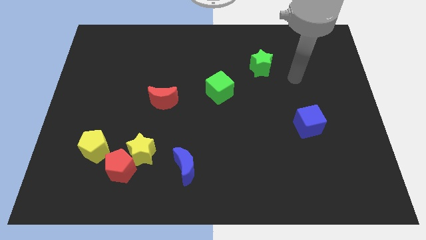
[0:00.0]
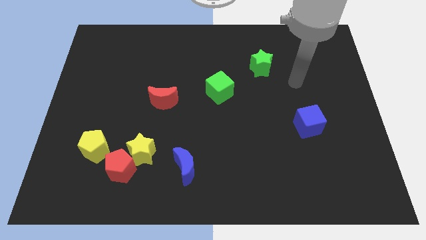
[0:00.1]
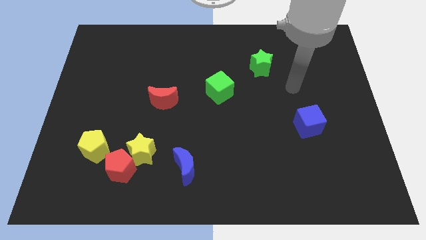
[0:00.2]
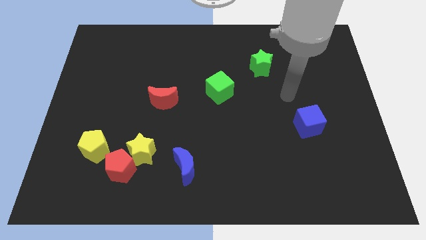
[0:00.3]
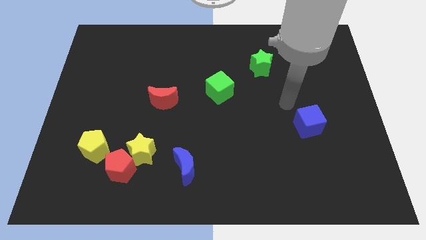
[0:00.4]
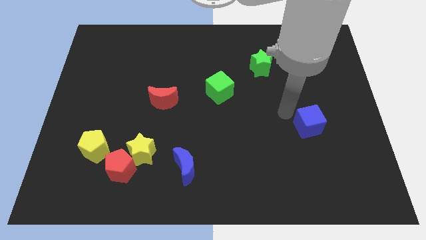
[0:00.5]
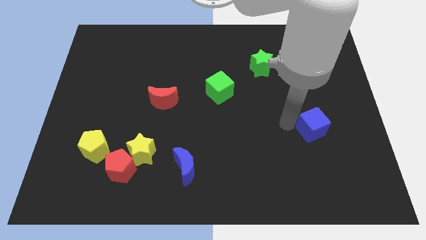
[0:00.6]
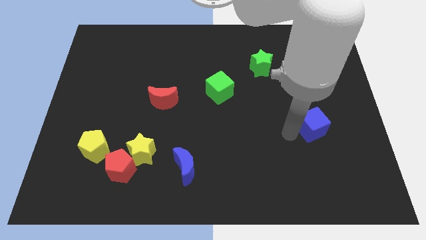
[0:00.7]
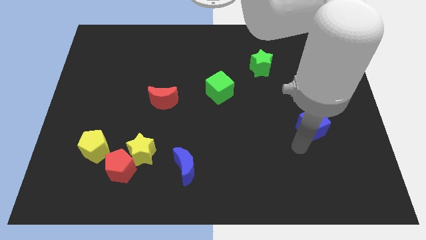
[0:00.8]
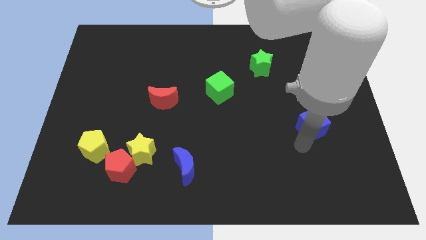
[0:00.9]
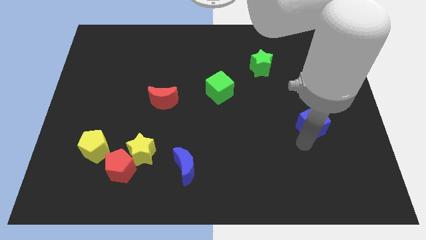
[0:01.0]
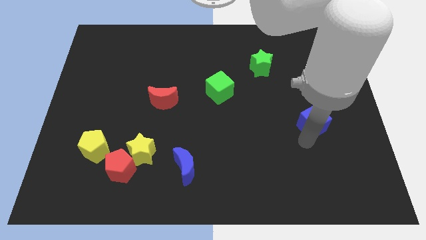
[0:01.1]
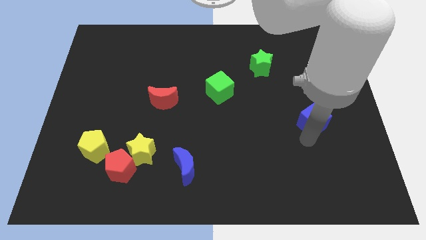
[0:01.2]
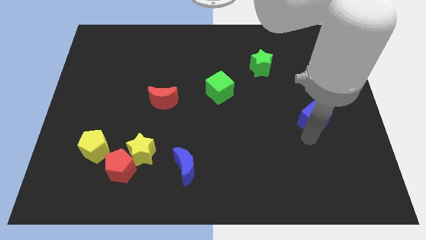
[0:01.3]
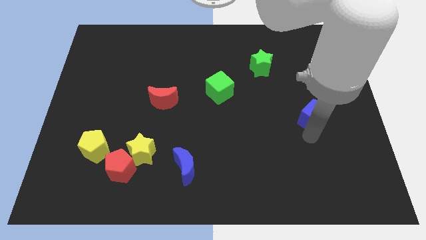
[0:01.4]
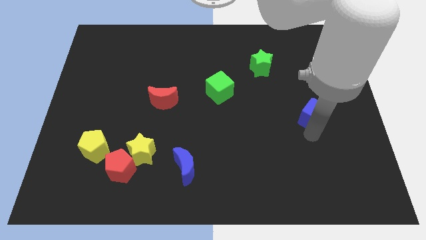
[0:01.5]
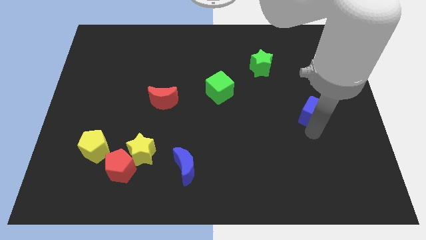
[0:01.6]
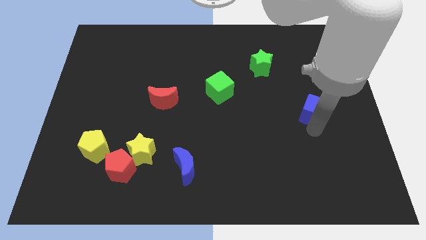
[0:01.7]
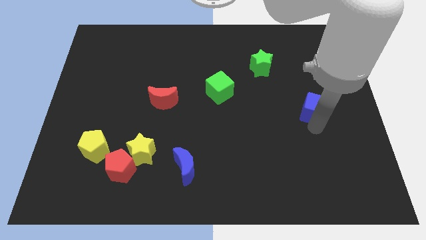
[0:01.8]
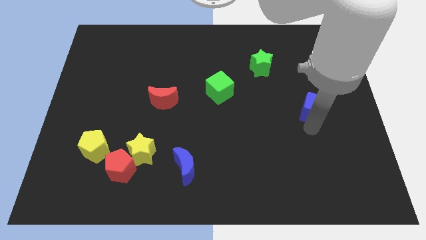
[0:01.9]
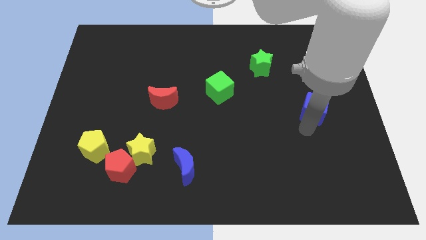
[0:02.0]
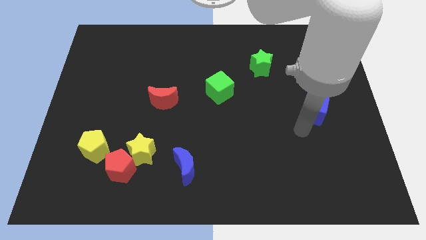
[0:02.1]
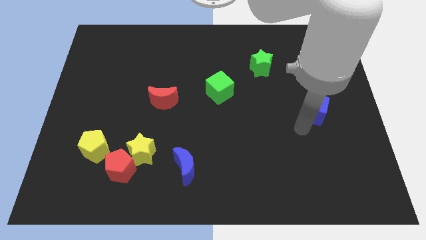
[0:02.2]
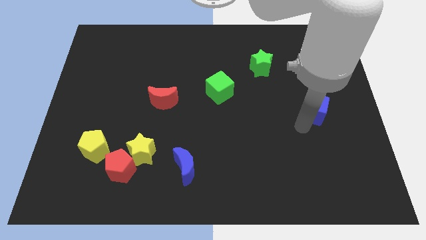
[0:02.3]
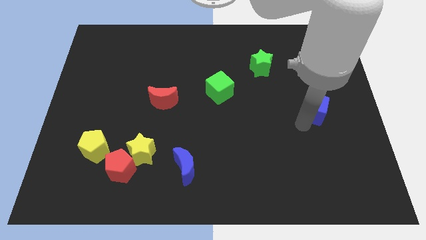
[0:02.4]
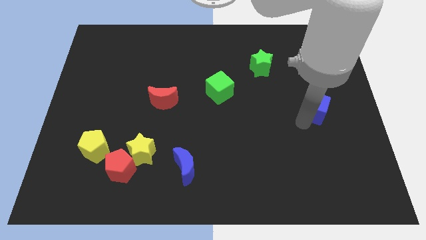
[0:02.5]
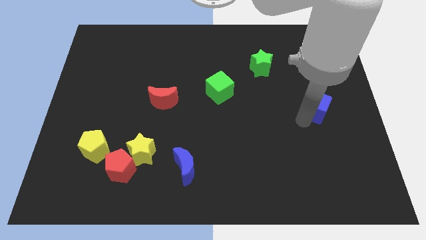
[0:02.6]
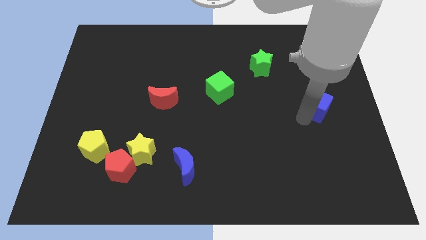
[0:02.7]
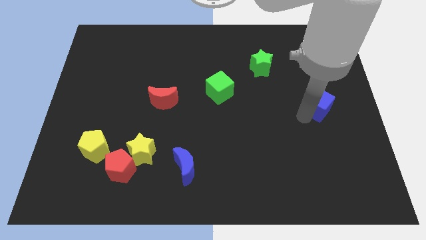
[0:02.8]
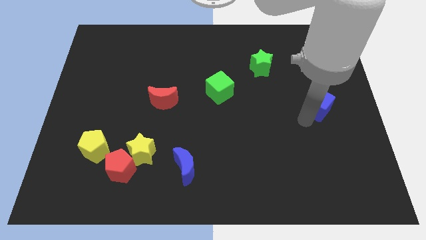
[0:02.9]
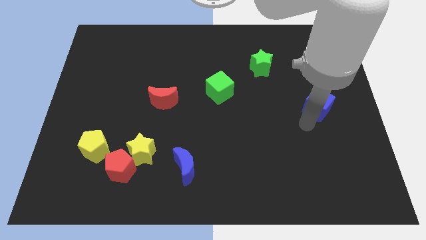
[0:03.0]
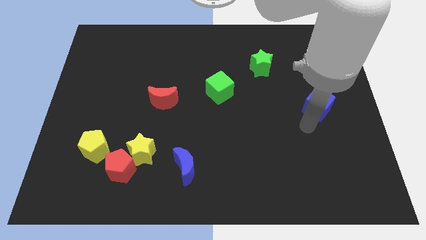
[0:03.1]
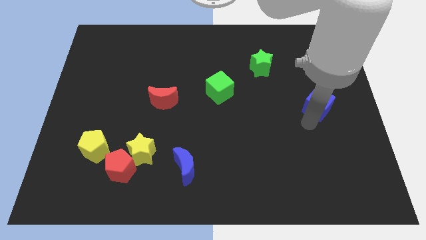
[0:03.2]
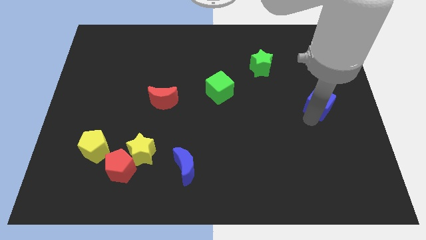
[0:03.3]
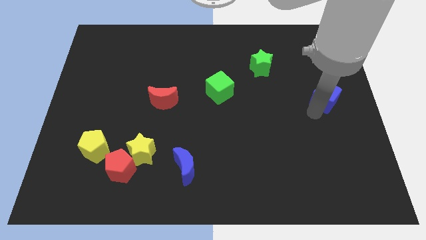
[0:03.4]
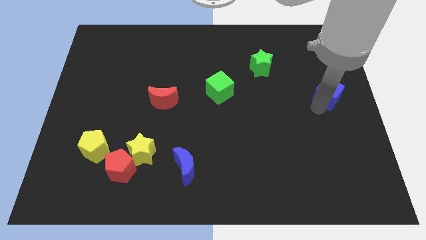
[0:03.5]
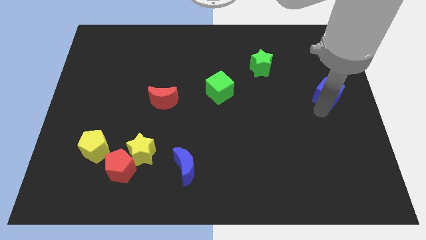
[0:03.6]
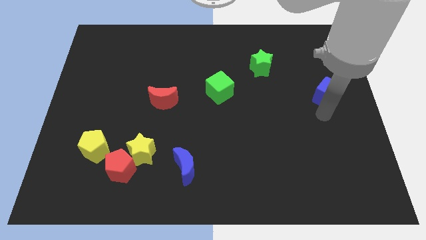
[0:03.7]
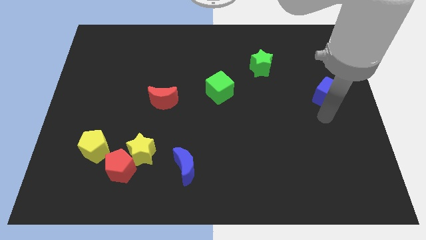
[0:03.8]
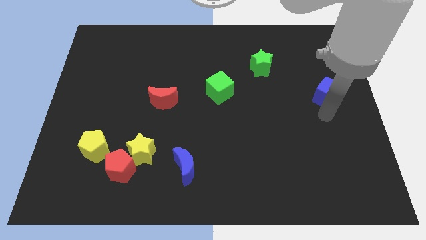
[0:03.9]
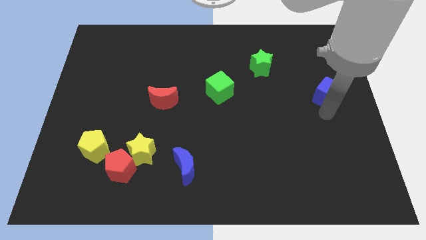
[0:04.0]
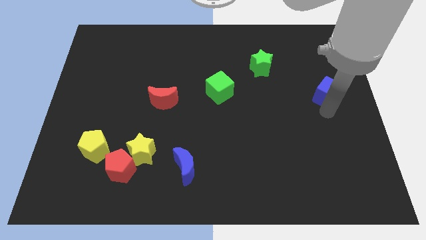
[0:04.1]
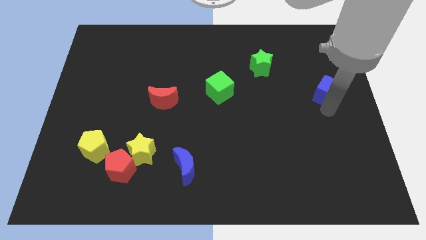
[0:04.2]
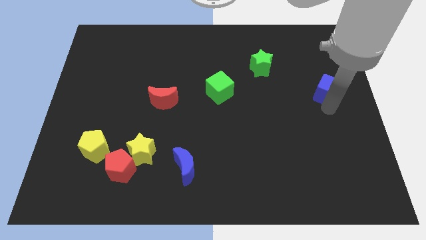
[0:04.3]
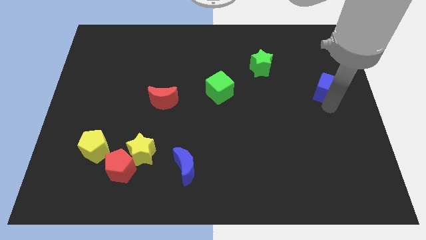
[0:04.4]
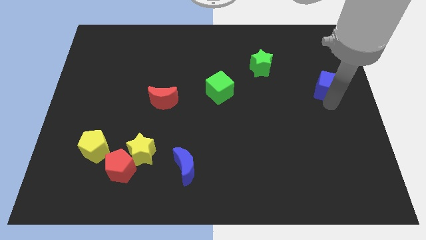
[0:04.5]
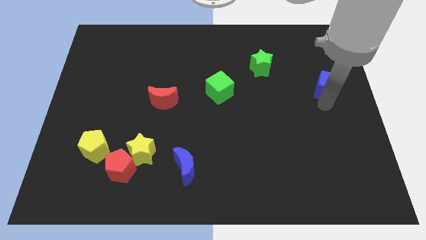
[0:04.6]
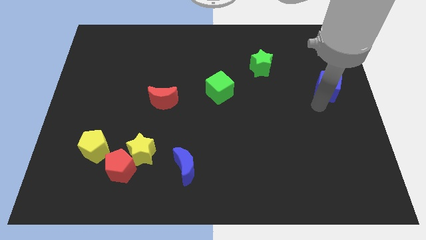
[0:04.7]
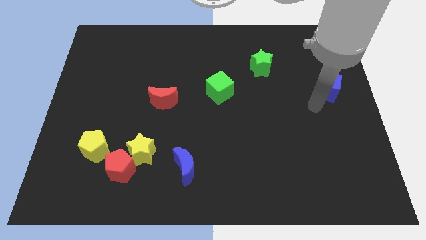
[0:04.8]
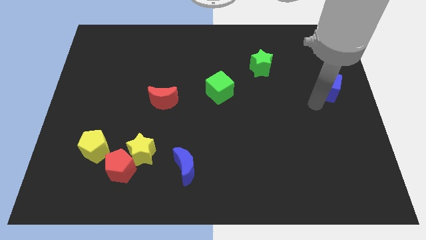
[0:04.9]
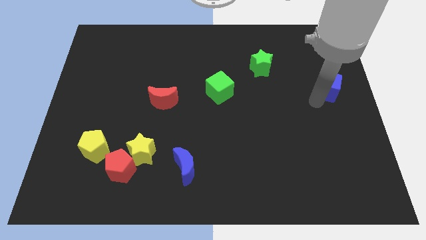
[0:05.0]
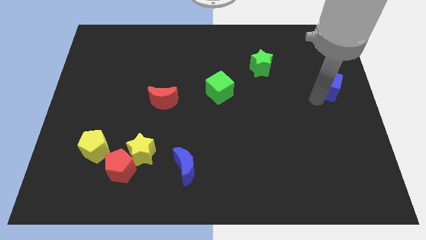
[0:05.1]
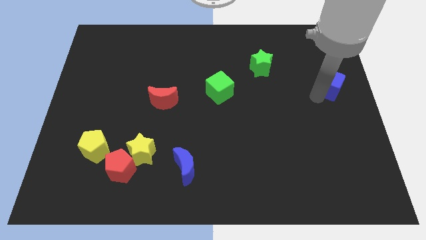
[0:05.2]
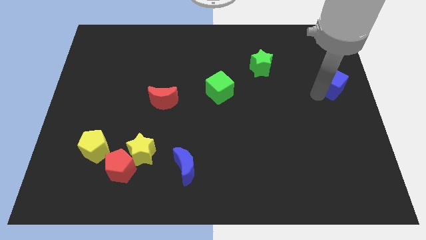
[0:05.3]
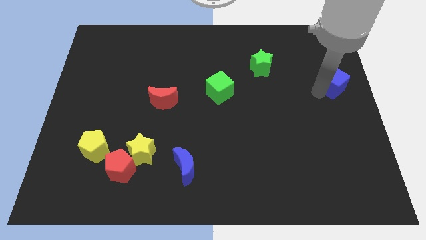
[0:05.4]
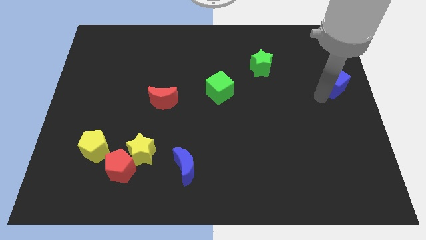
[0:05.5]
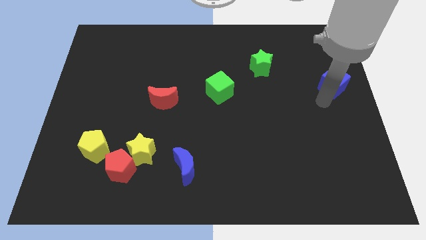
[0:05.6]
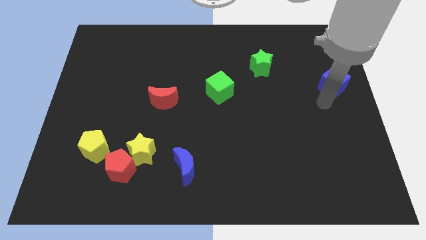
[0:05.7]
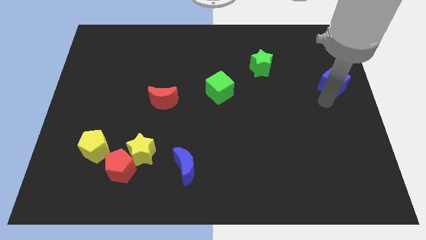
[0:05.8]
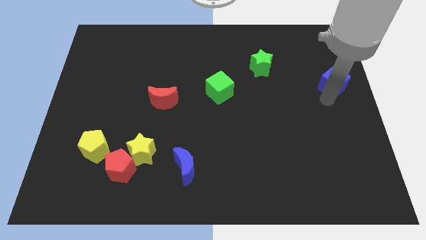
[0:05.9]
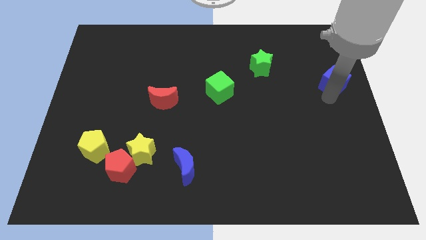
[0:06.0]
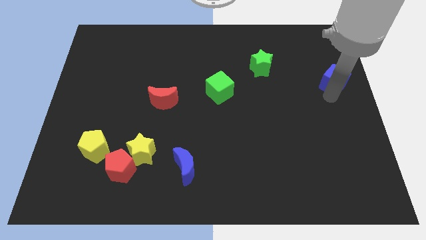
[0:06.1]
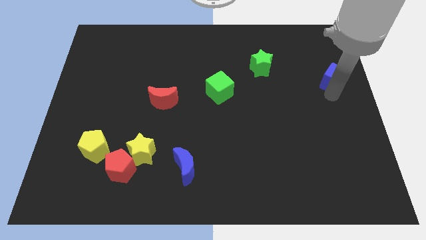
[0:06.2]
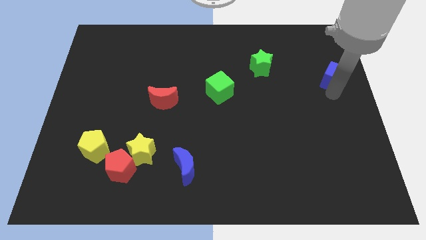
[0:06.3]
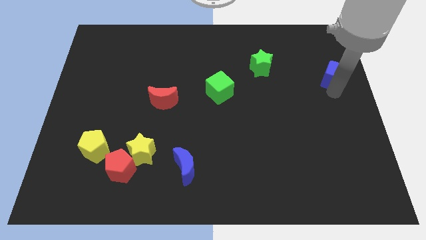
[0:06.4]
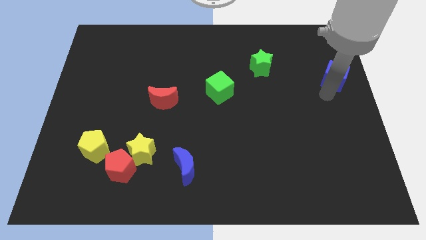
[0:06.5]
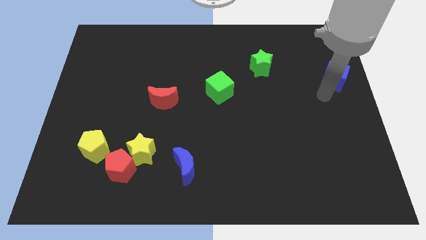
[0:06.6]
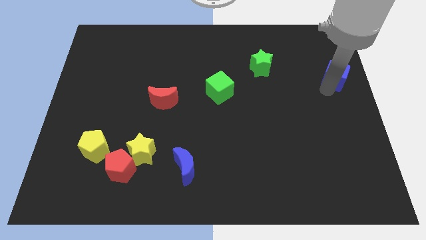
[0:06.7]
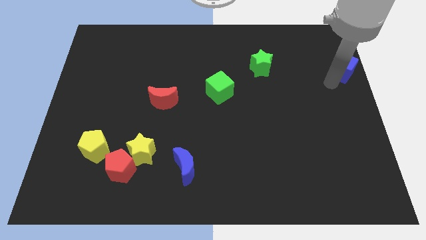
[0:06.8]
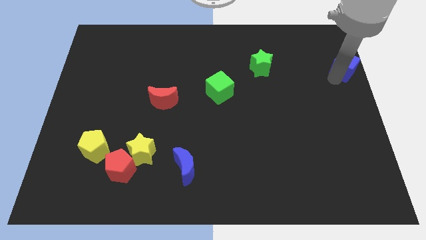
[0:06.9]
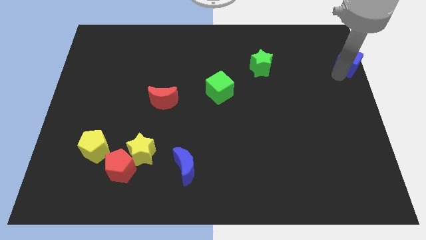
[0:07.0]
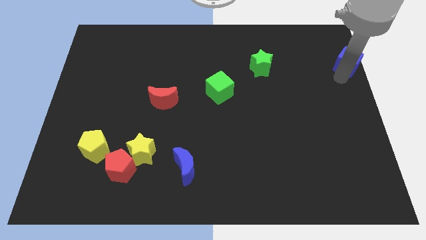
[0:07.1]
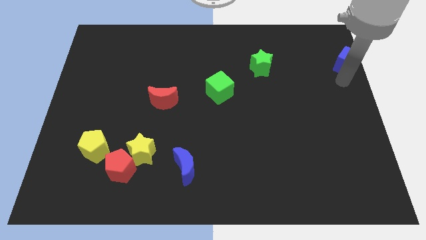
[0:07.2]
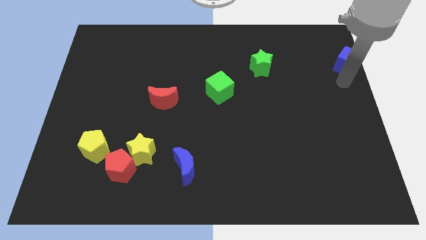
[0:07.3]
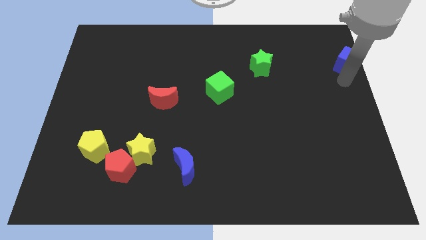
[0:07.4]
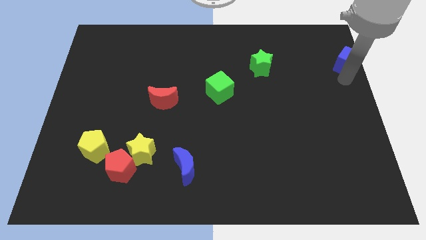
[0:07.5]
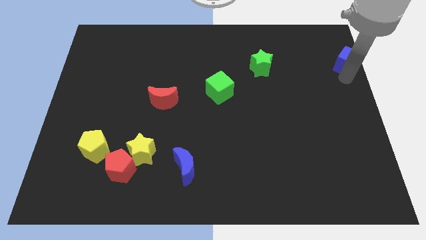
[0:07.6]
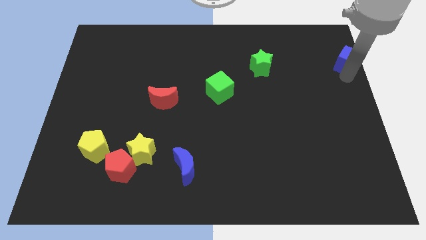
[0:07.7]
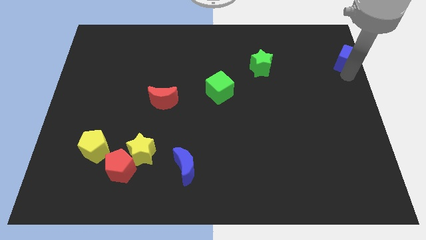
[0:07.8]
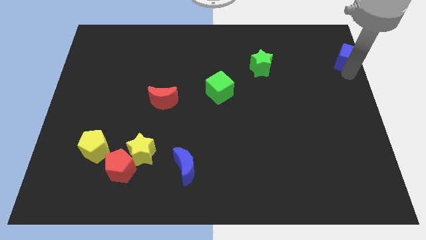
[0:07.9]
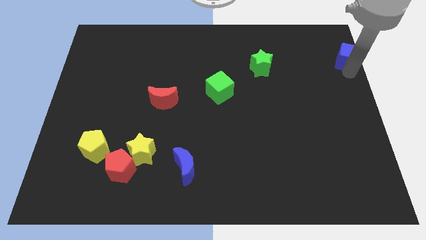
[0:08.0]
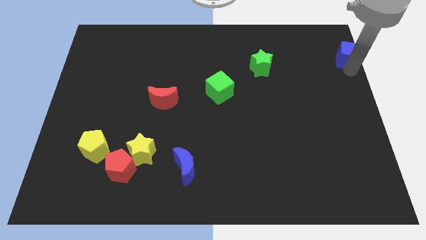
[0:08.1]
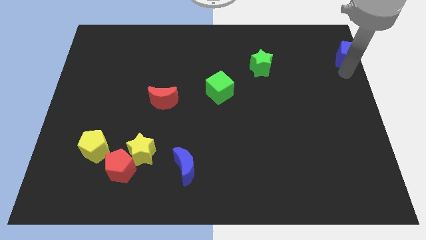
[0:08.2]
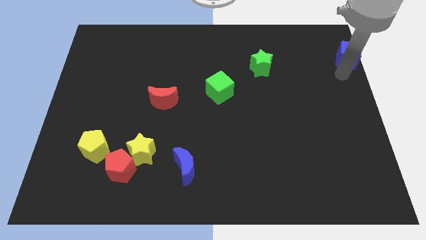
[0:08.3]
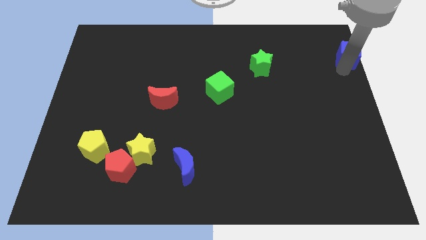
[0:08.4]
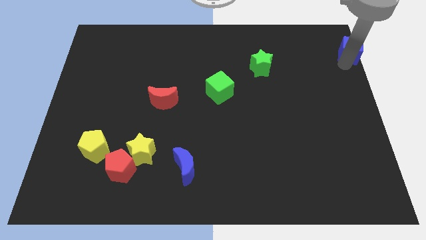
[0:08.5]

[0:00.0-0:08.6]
move the blue cube to the top right corner
